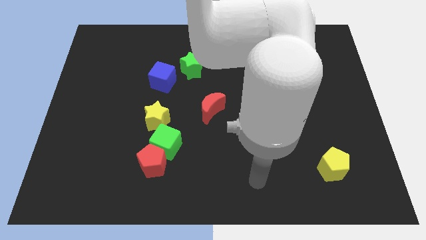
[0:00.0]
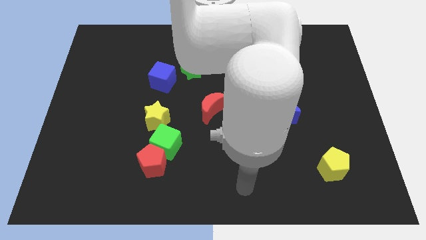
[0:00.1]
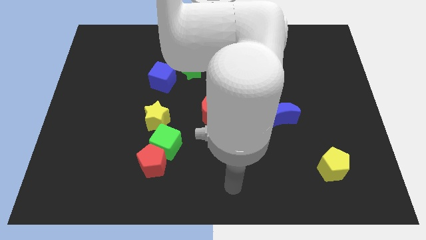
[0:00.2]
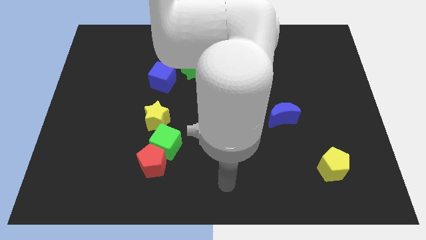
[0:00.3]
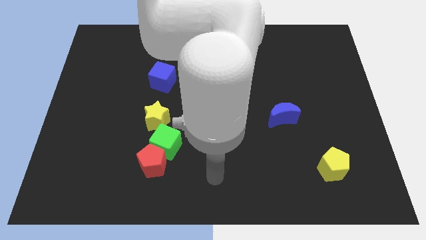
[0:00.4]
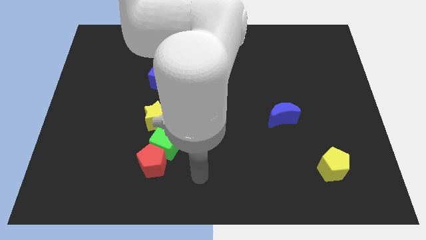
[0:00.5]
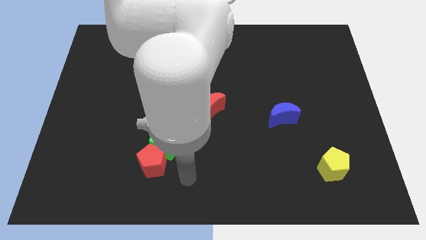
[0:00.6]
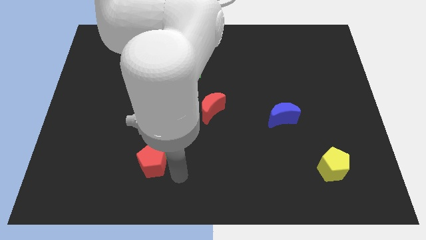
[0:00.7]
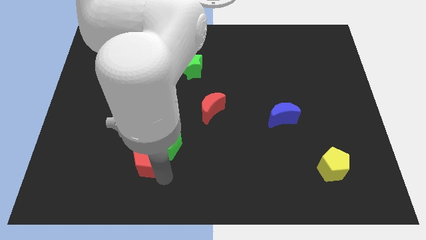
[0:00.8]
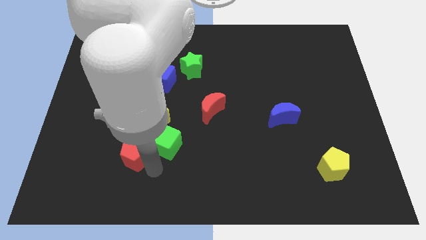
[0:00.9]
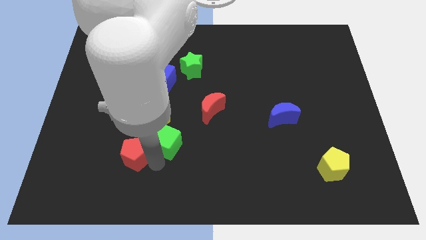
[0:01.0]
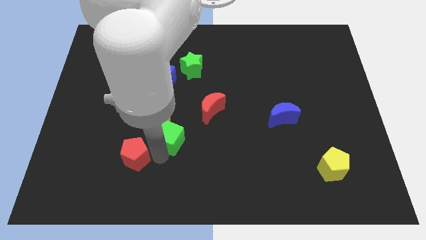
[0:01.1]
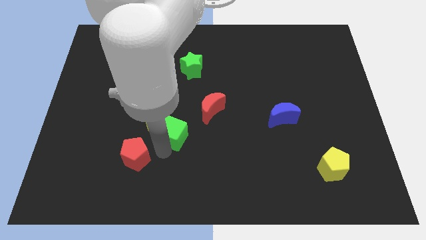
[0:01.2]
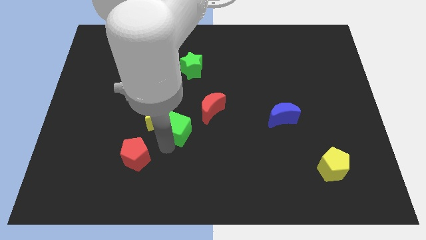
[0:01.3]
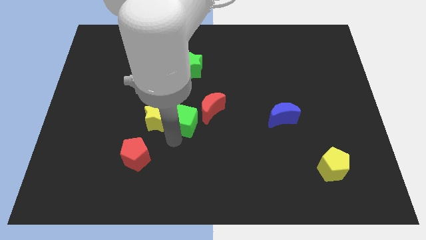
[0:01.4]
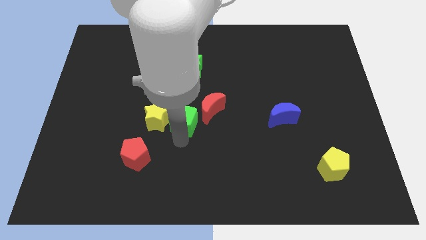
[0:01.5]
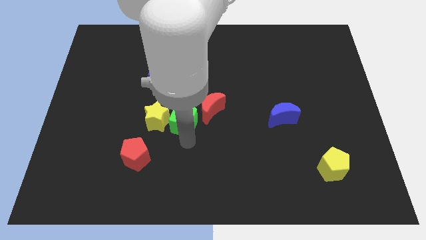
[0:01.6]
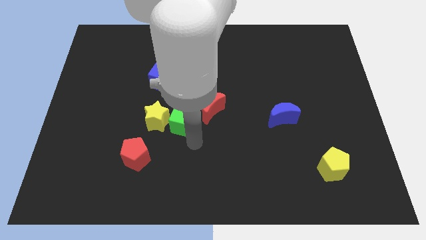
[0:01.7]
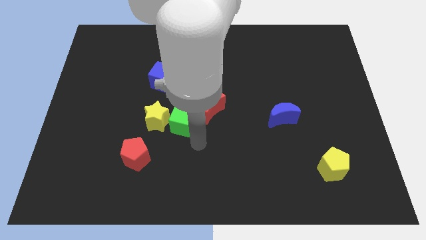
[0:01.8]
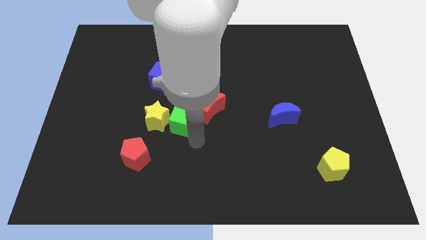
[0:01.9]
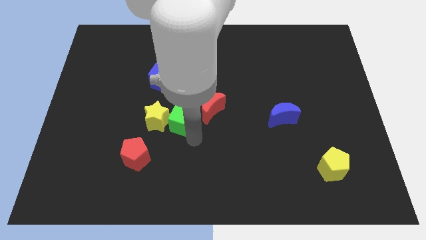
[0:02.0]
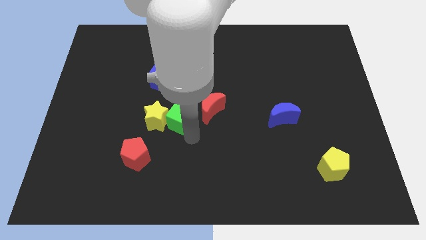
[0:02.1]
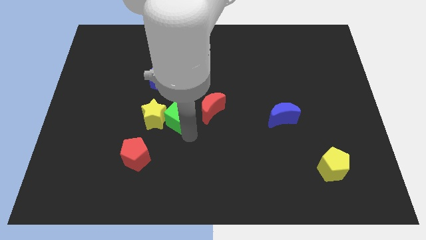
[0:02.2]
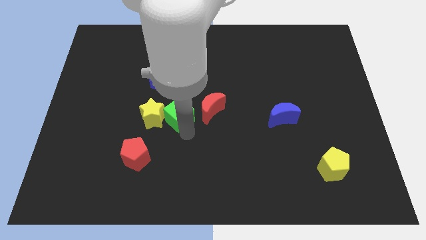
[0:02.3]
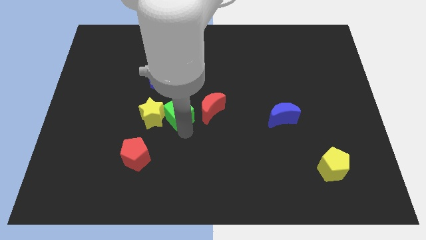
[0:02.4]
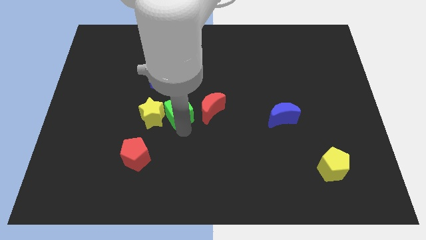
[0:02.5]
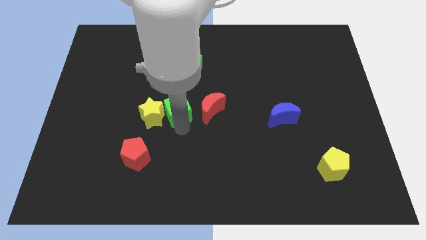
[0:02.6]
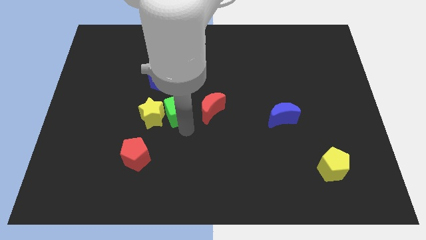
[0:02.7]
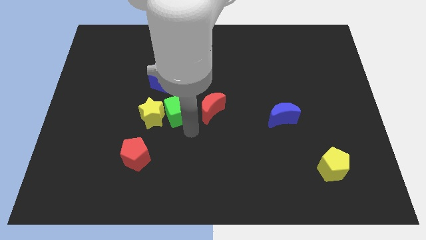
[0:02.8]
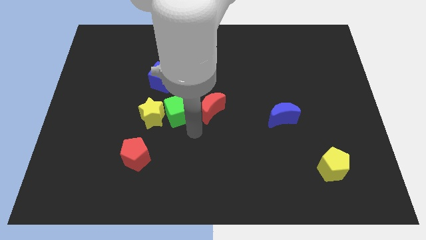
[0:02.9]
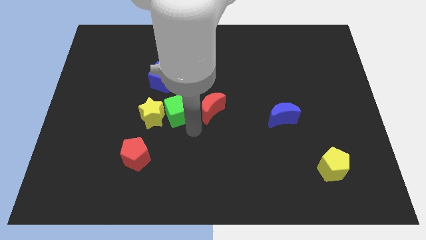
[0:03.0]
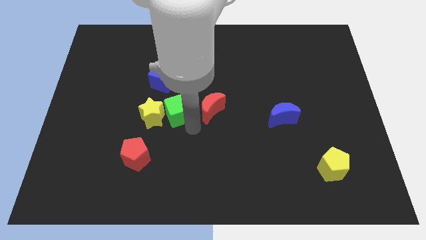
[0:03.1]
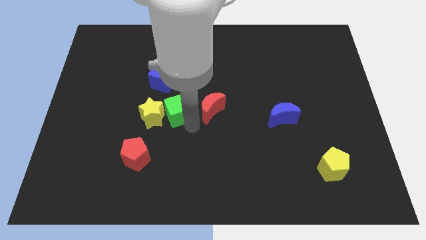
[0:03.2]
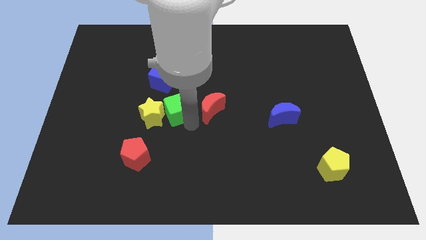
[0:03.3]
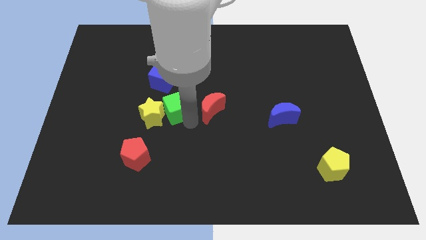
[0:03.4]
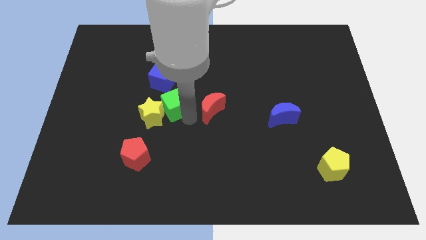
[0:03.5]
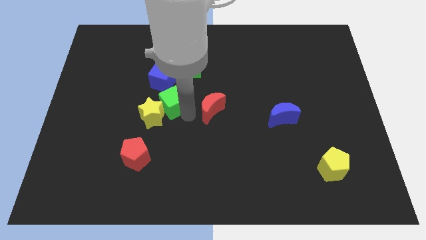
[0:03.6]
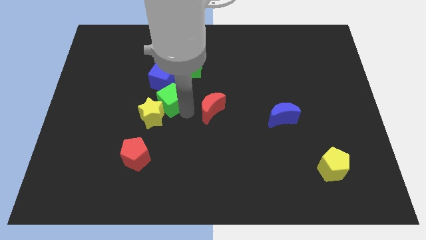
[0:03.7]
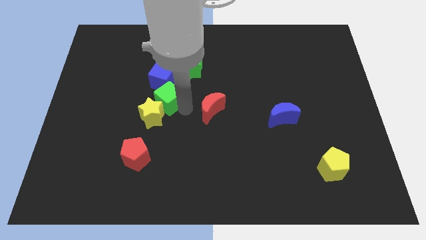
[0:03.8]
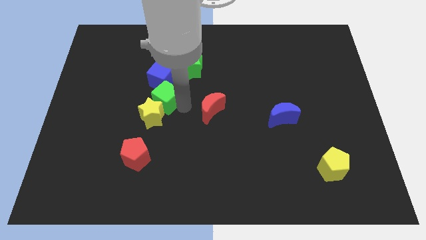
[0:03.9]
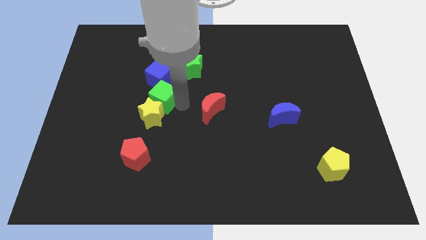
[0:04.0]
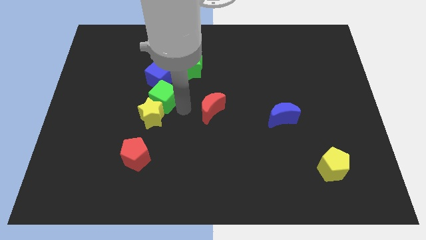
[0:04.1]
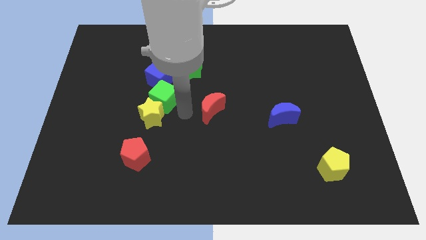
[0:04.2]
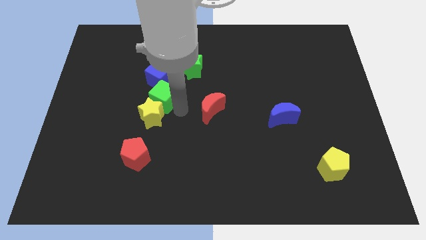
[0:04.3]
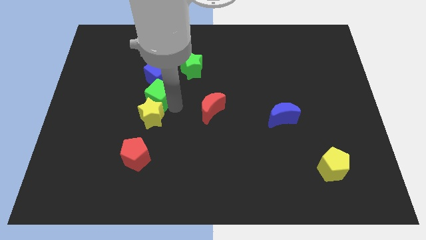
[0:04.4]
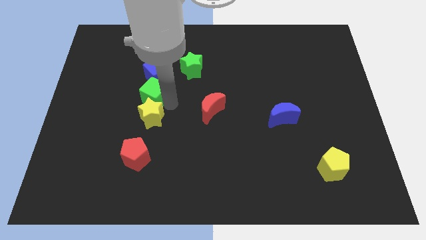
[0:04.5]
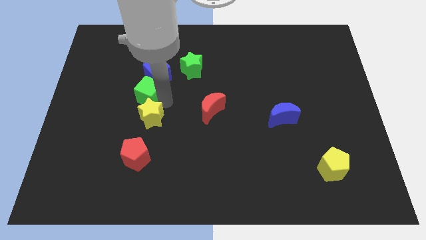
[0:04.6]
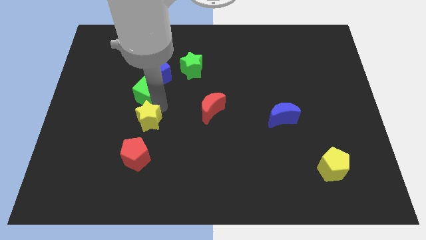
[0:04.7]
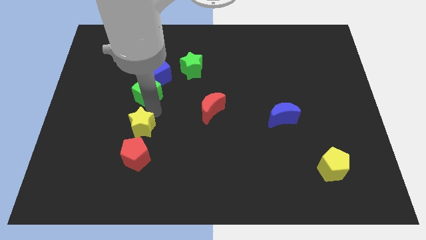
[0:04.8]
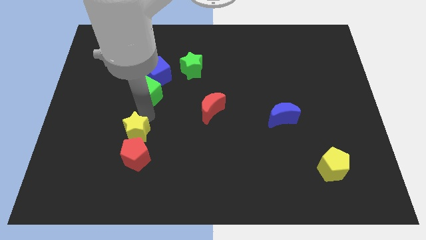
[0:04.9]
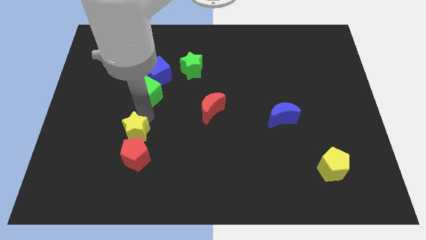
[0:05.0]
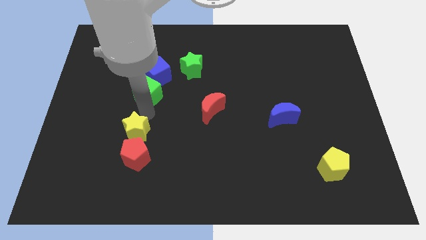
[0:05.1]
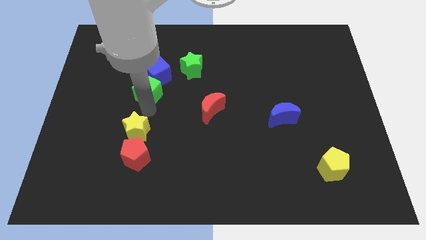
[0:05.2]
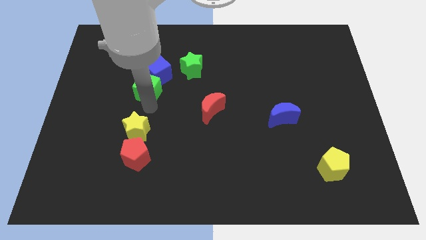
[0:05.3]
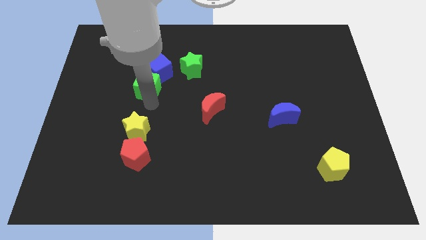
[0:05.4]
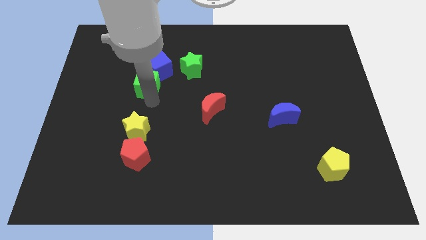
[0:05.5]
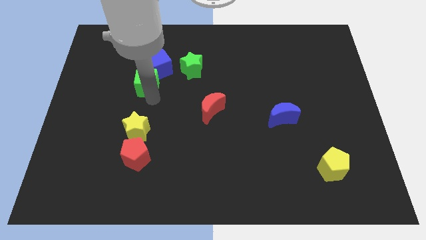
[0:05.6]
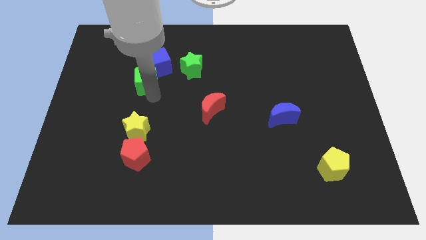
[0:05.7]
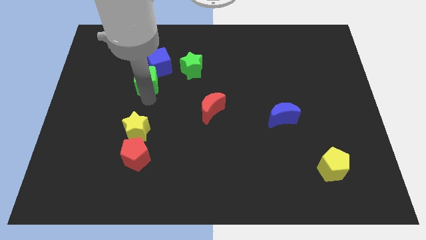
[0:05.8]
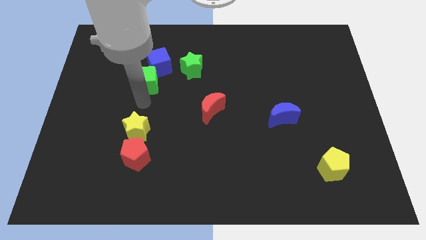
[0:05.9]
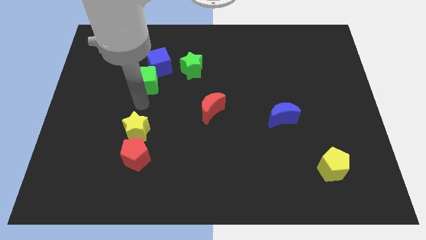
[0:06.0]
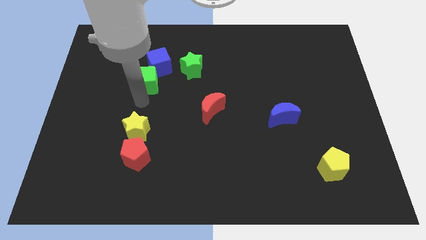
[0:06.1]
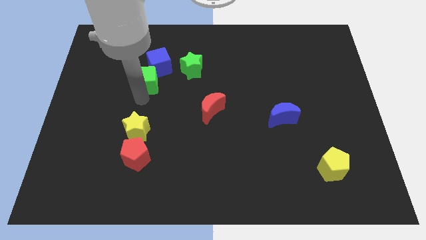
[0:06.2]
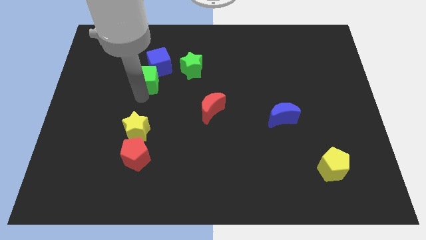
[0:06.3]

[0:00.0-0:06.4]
put the green cube to the left of the green star
